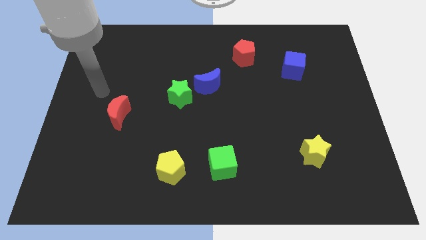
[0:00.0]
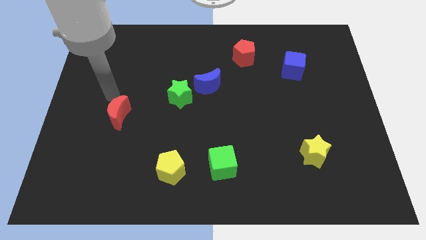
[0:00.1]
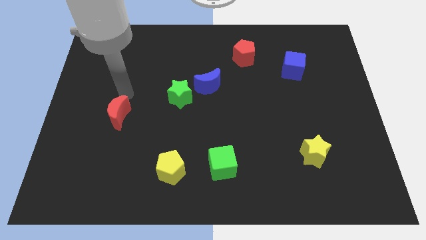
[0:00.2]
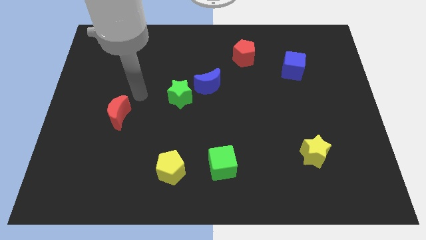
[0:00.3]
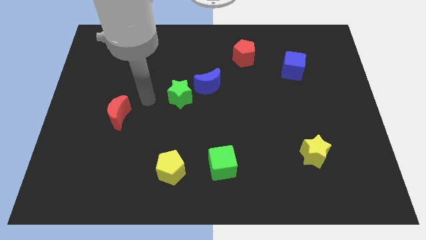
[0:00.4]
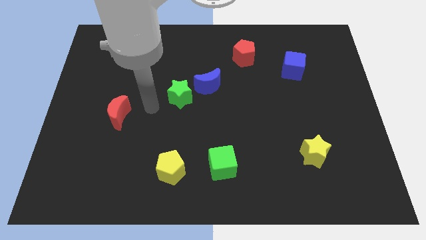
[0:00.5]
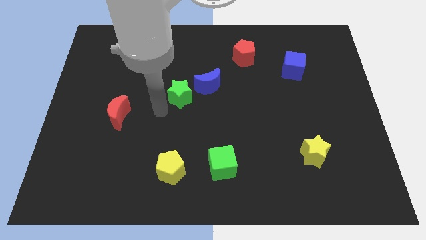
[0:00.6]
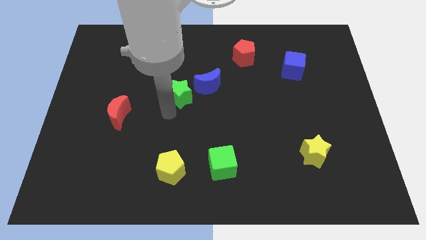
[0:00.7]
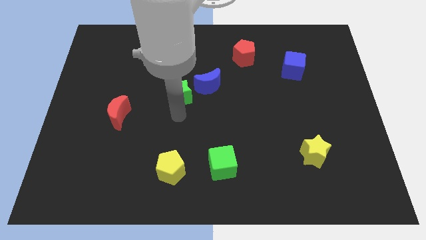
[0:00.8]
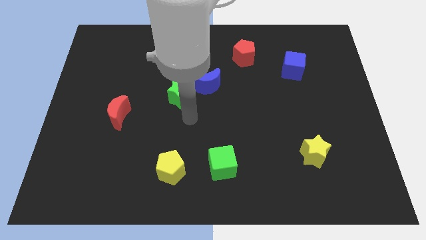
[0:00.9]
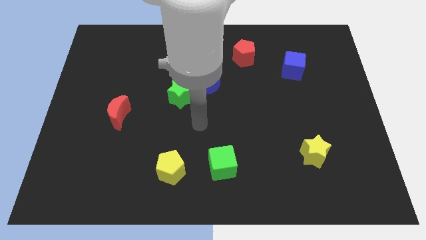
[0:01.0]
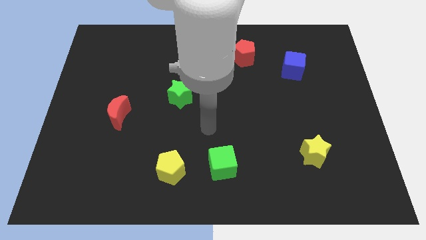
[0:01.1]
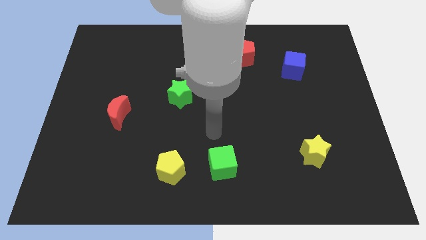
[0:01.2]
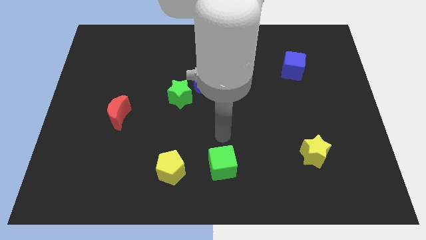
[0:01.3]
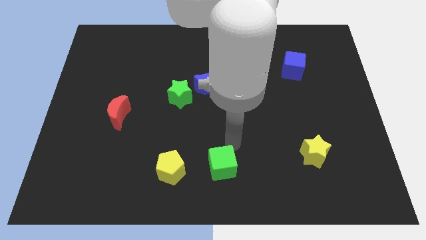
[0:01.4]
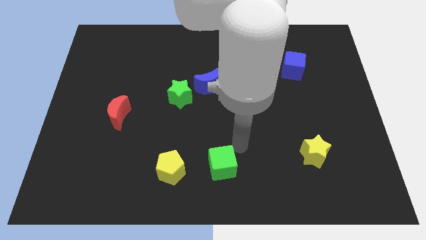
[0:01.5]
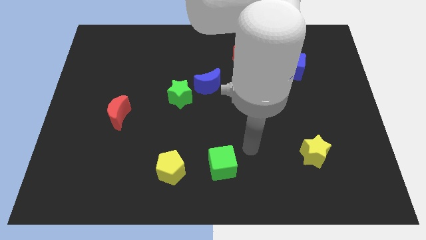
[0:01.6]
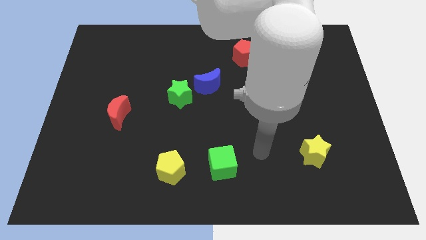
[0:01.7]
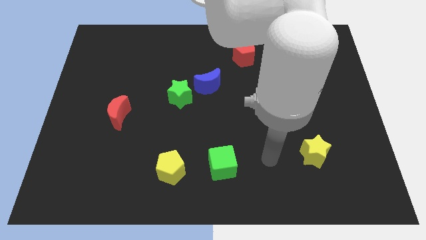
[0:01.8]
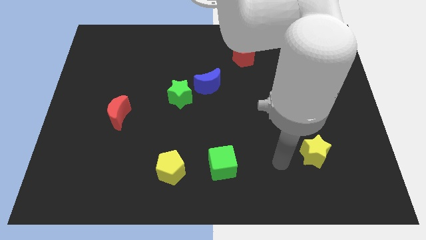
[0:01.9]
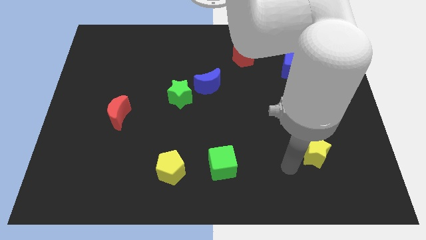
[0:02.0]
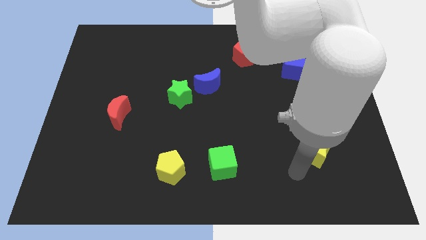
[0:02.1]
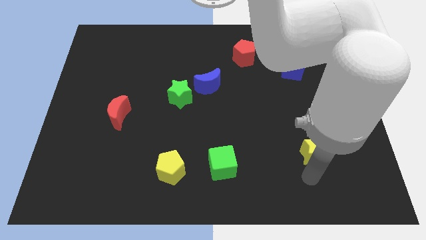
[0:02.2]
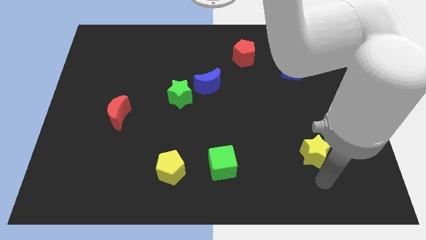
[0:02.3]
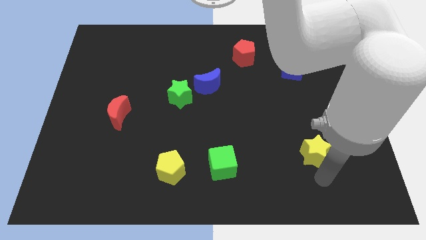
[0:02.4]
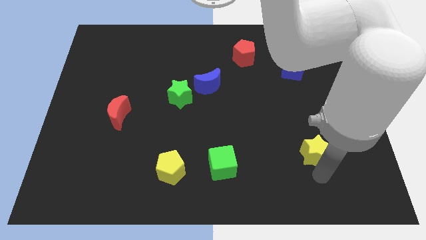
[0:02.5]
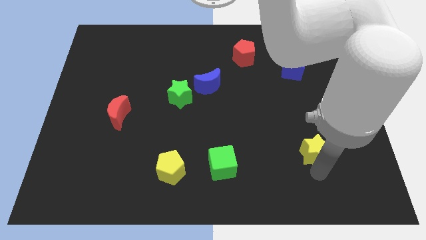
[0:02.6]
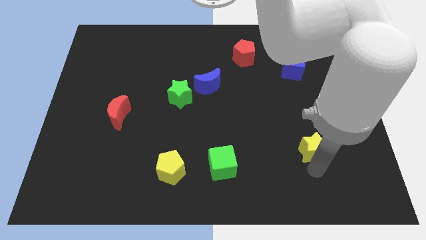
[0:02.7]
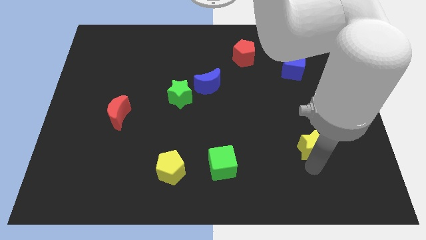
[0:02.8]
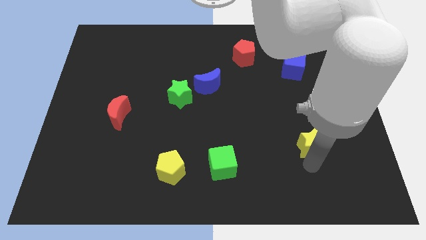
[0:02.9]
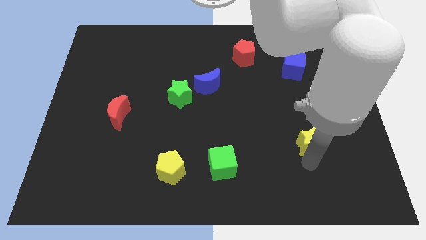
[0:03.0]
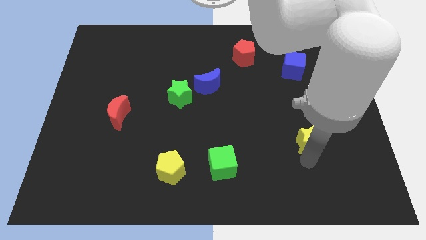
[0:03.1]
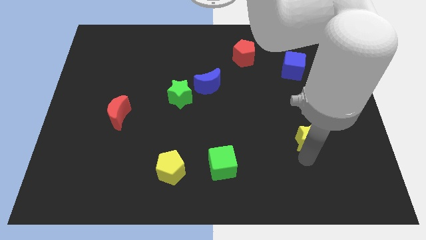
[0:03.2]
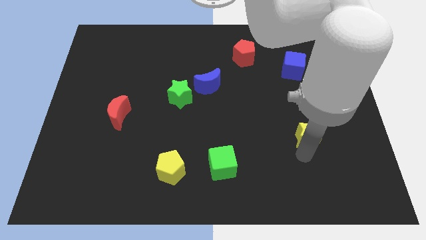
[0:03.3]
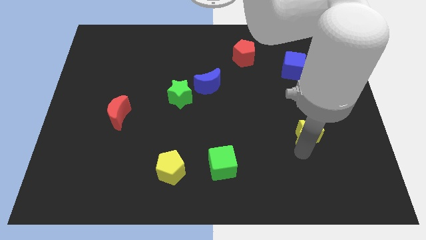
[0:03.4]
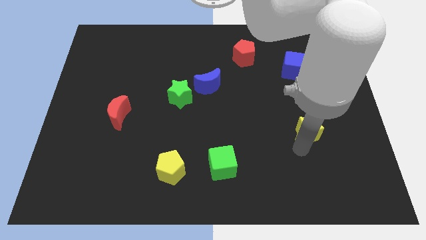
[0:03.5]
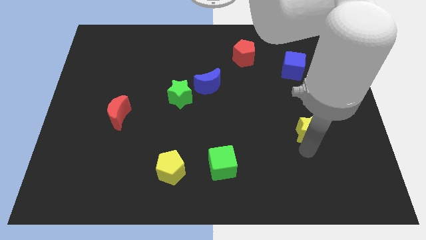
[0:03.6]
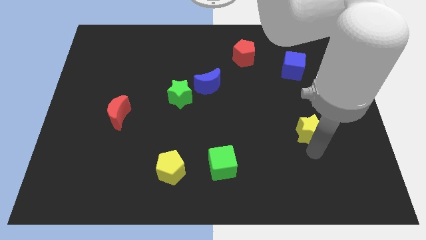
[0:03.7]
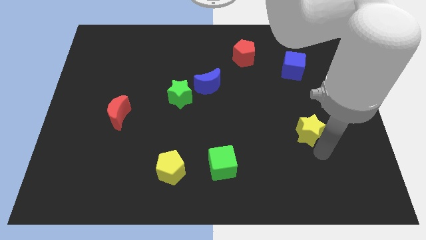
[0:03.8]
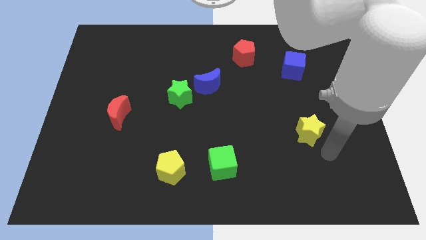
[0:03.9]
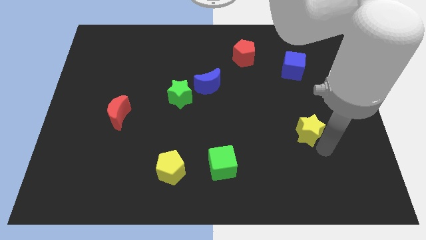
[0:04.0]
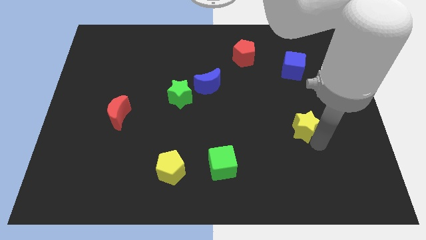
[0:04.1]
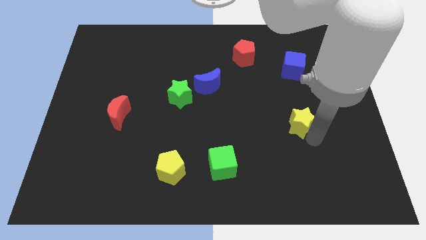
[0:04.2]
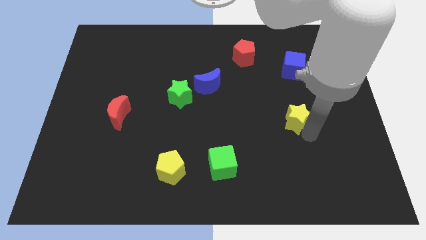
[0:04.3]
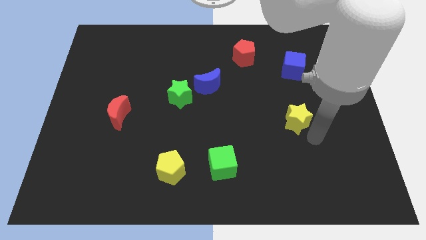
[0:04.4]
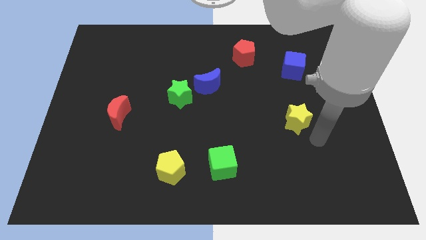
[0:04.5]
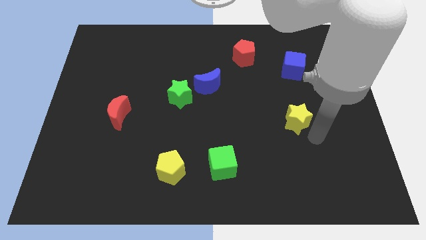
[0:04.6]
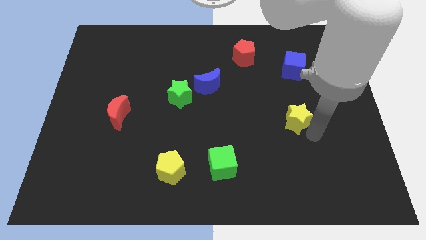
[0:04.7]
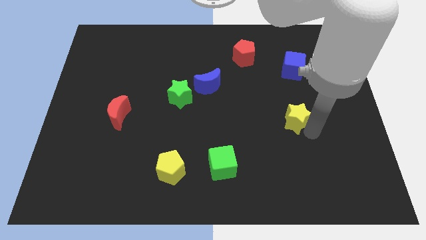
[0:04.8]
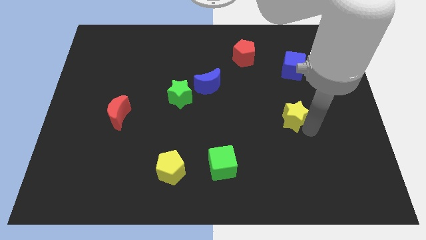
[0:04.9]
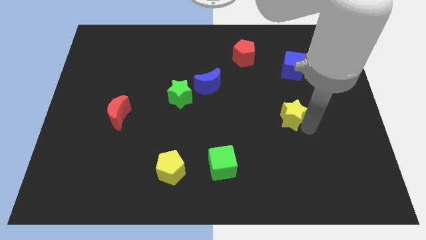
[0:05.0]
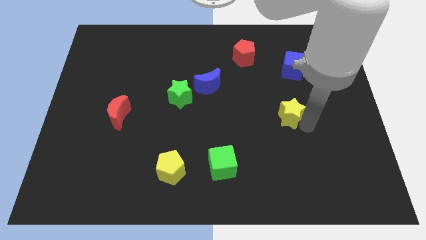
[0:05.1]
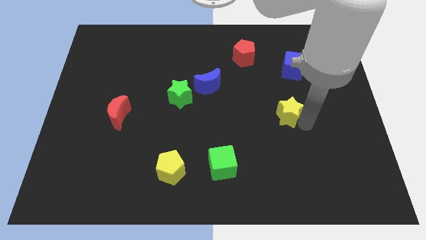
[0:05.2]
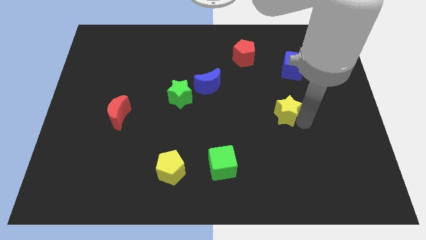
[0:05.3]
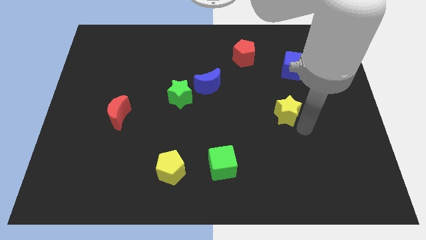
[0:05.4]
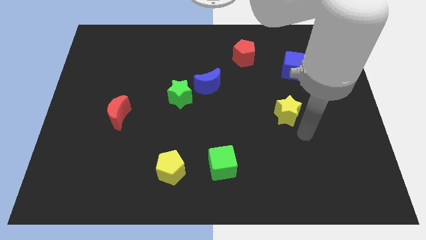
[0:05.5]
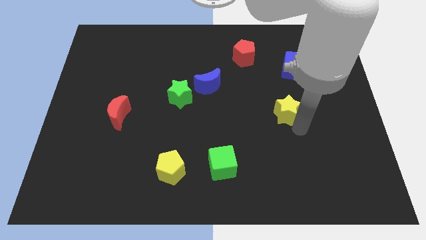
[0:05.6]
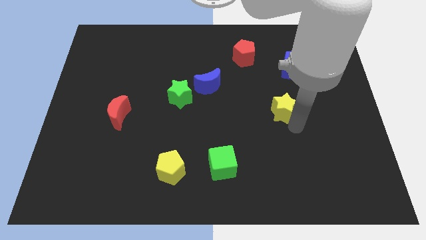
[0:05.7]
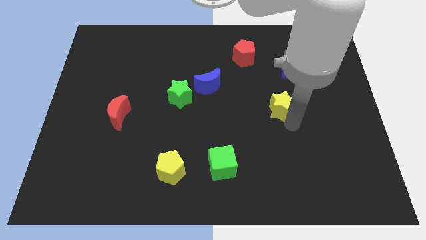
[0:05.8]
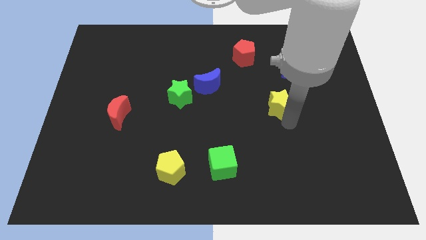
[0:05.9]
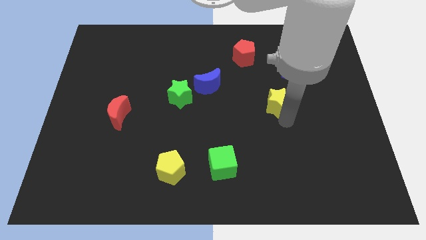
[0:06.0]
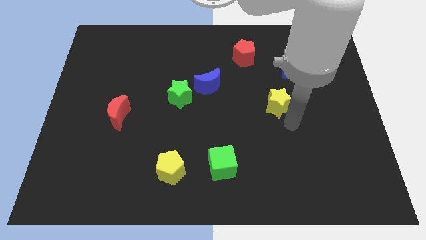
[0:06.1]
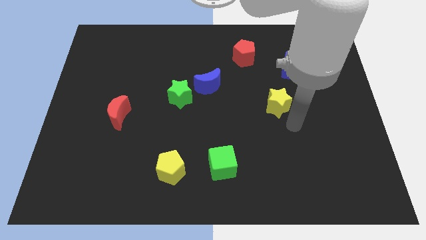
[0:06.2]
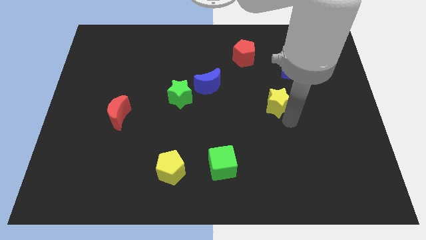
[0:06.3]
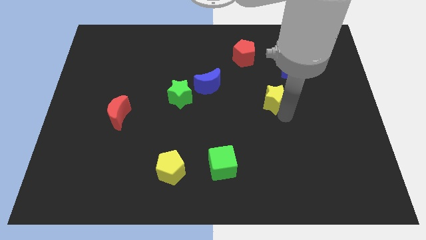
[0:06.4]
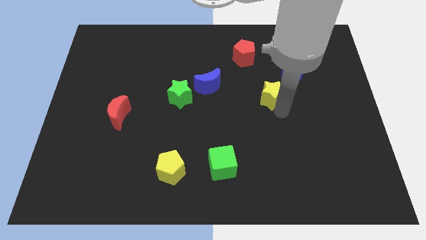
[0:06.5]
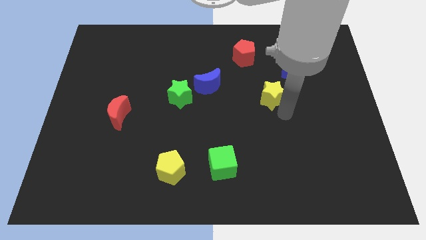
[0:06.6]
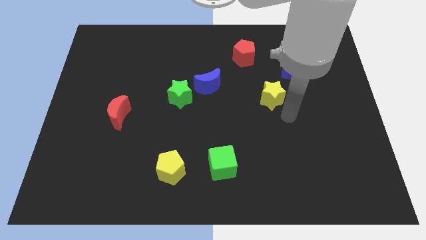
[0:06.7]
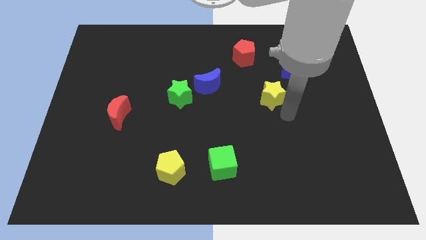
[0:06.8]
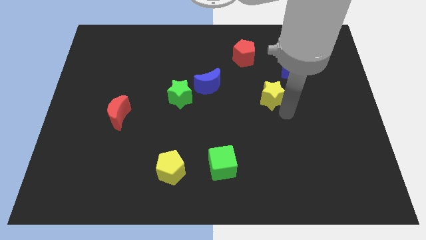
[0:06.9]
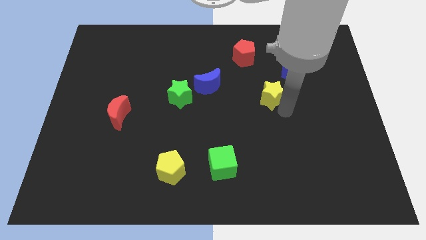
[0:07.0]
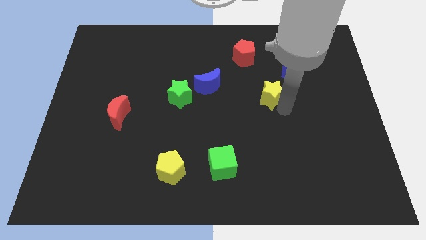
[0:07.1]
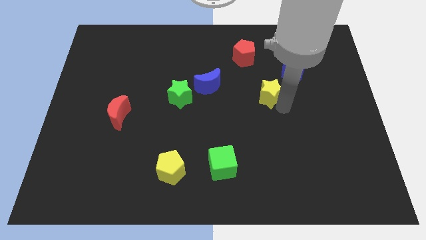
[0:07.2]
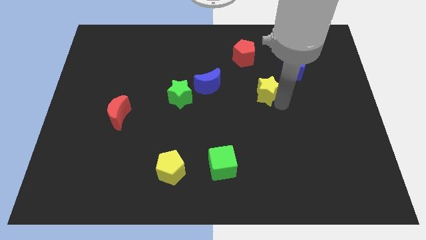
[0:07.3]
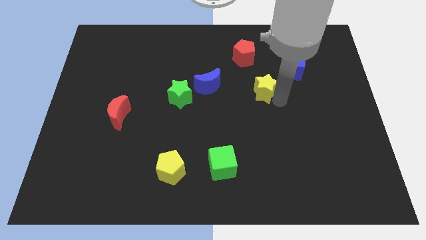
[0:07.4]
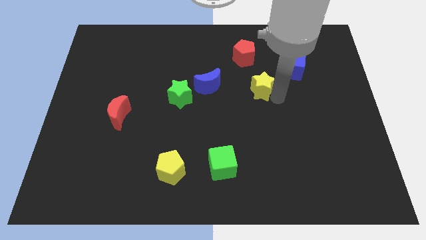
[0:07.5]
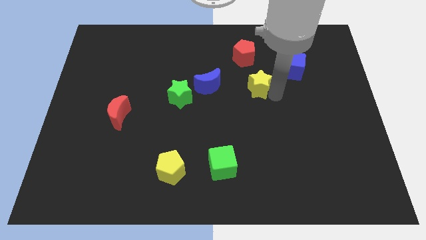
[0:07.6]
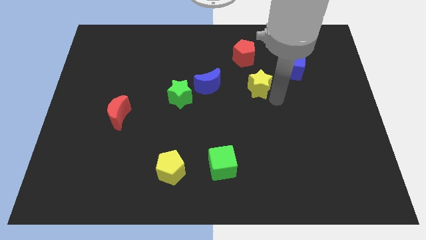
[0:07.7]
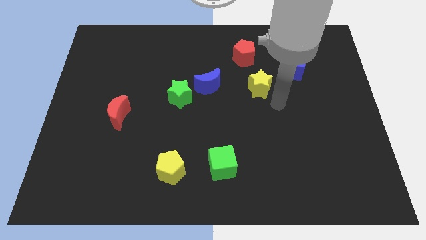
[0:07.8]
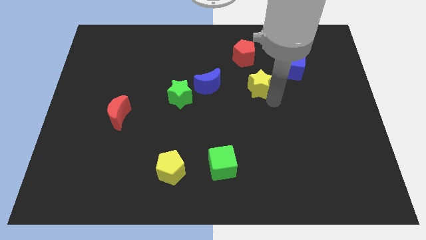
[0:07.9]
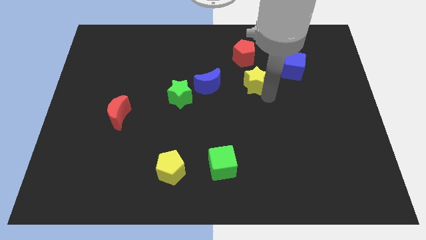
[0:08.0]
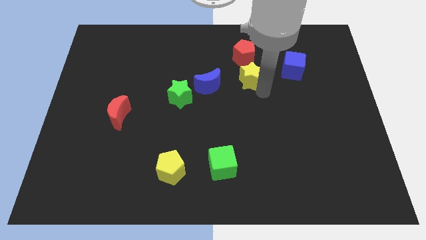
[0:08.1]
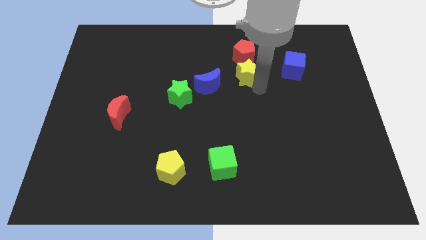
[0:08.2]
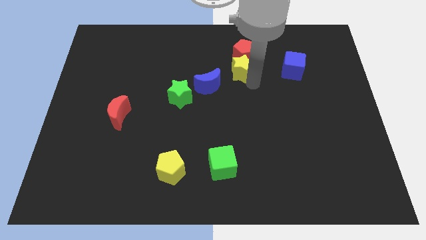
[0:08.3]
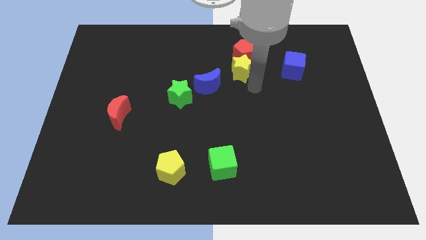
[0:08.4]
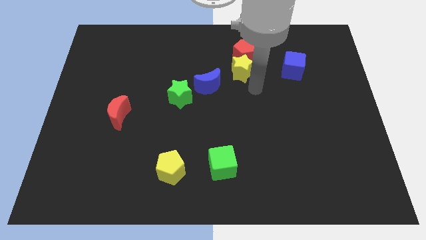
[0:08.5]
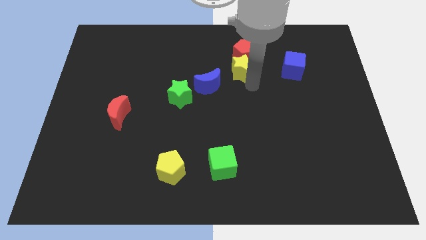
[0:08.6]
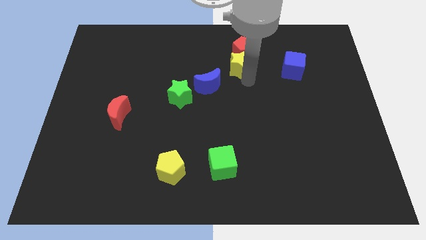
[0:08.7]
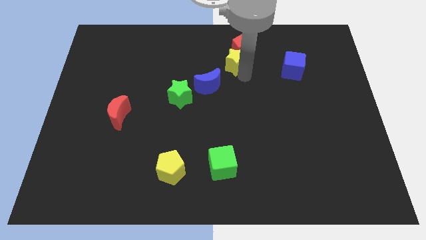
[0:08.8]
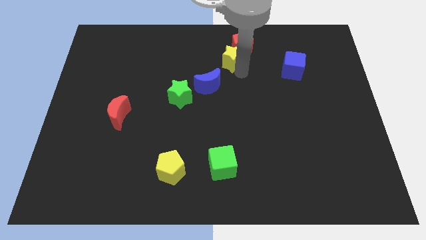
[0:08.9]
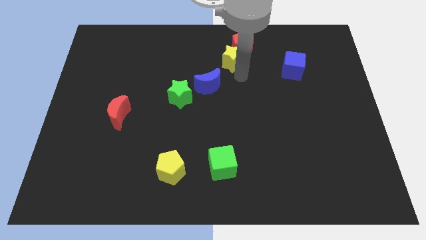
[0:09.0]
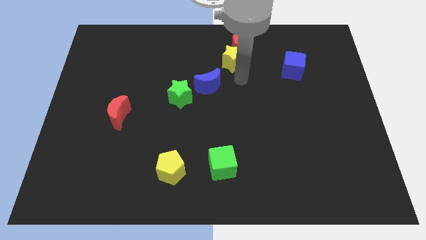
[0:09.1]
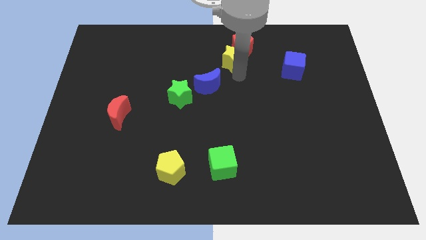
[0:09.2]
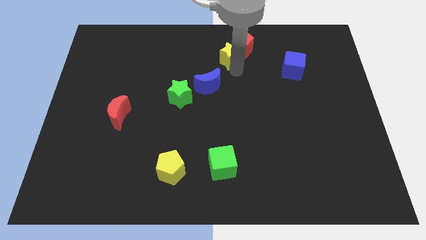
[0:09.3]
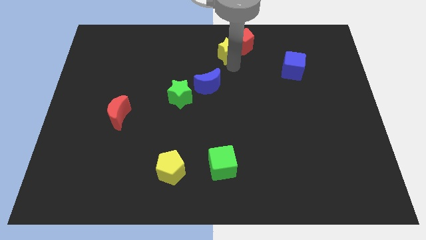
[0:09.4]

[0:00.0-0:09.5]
move the yellow star to the top
